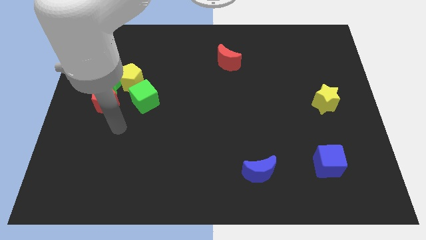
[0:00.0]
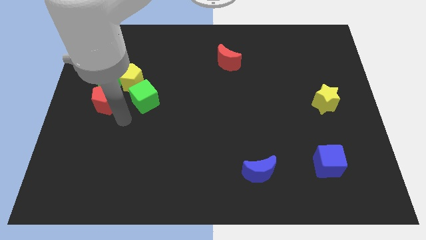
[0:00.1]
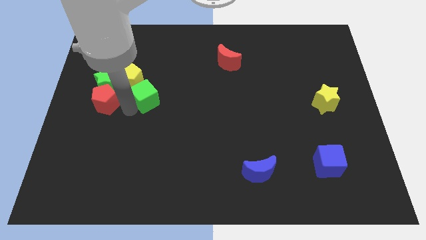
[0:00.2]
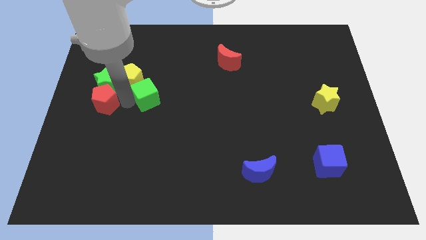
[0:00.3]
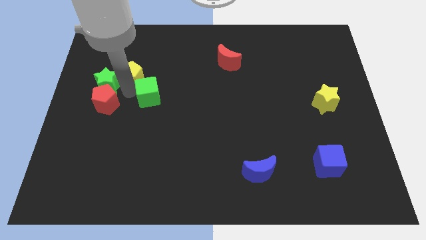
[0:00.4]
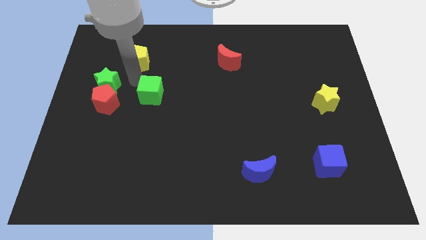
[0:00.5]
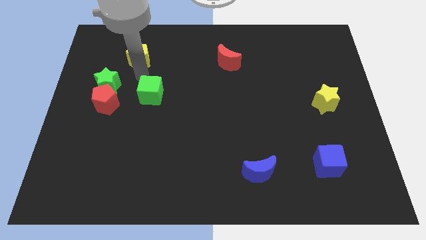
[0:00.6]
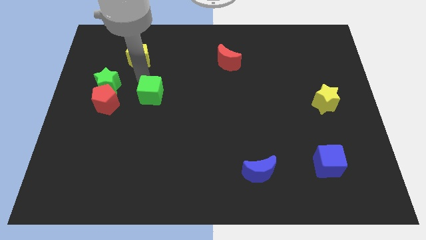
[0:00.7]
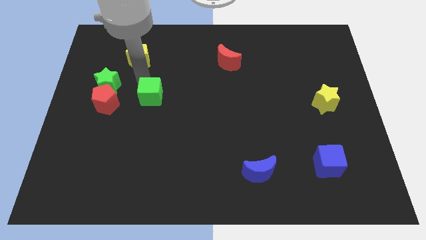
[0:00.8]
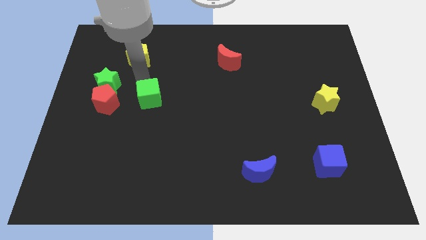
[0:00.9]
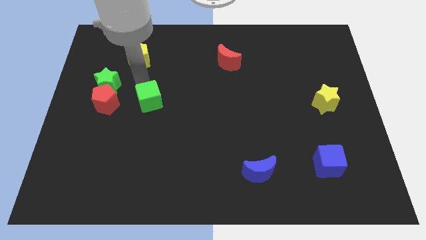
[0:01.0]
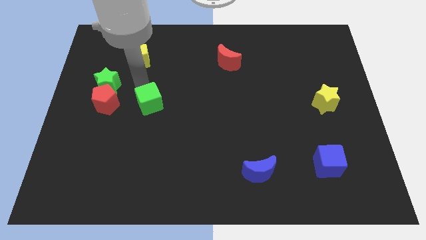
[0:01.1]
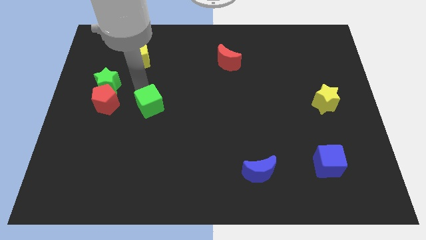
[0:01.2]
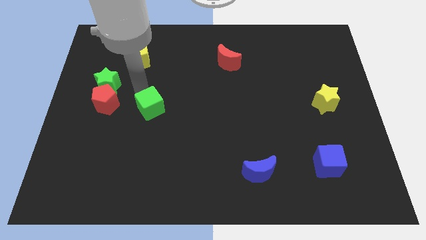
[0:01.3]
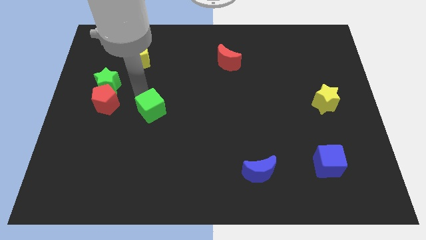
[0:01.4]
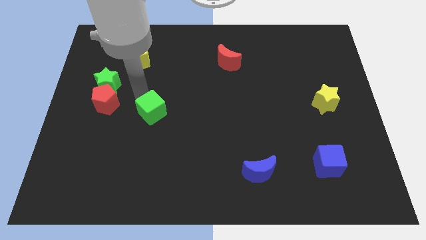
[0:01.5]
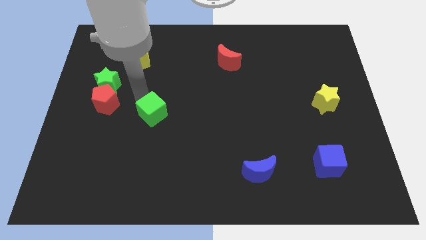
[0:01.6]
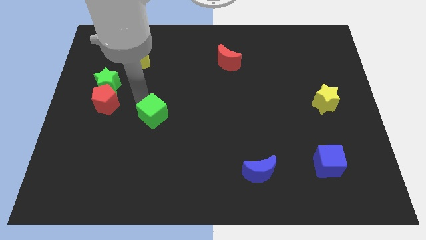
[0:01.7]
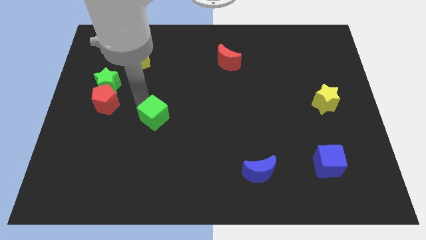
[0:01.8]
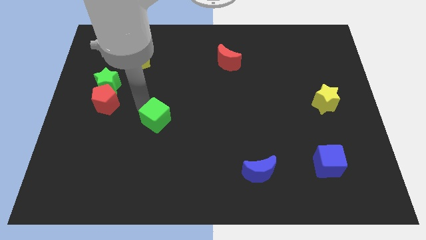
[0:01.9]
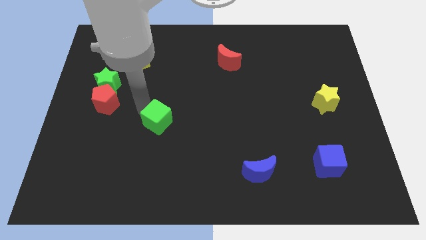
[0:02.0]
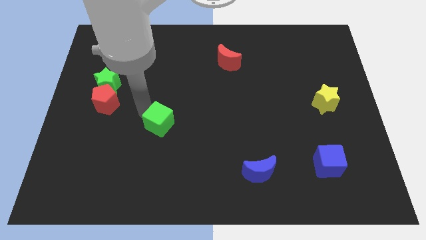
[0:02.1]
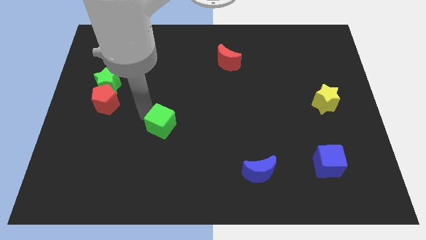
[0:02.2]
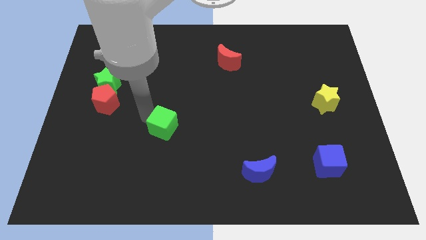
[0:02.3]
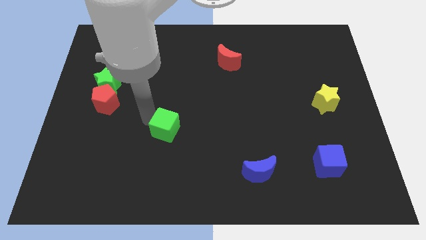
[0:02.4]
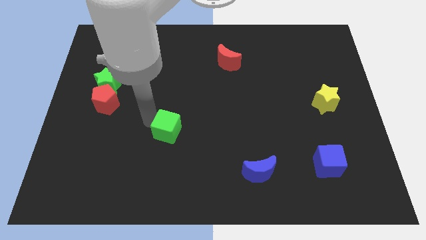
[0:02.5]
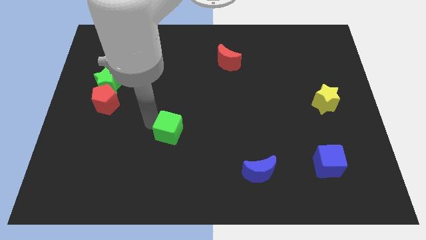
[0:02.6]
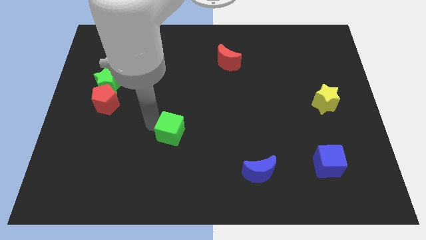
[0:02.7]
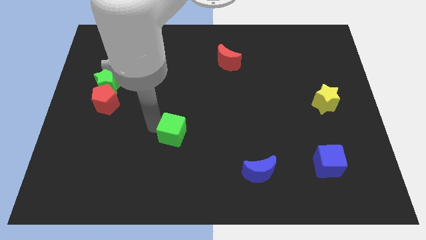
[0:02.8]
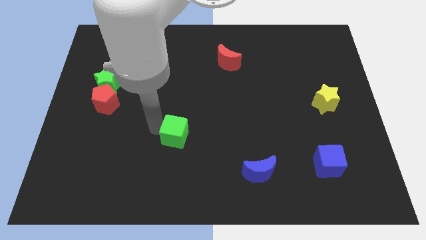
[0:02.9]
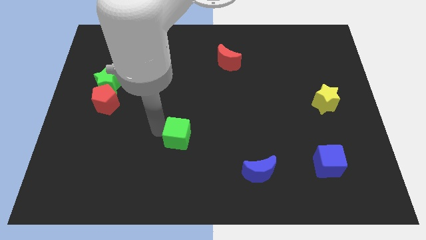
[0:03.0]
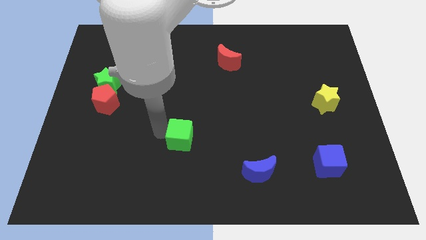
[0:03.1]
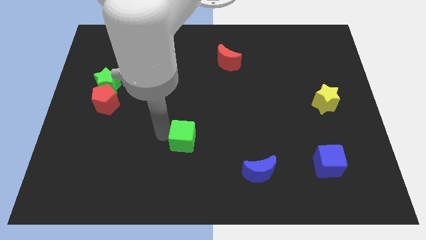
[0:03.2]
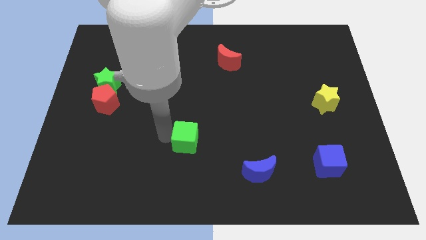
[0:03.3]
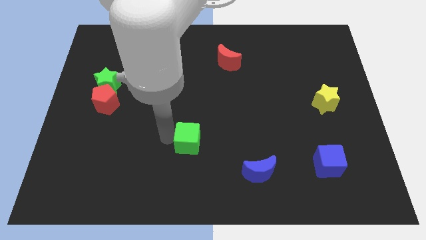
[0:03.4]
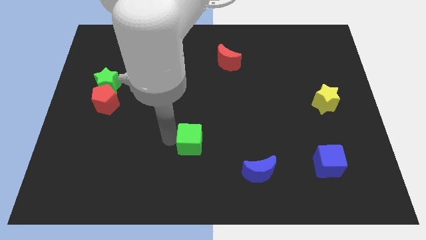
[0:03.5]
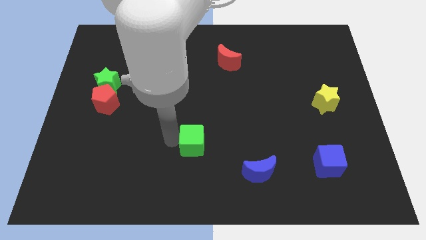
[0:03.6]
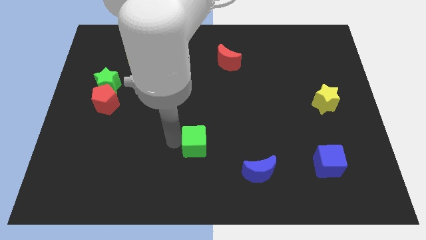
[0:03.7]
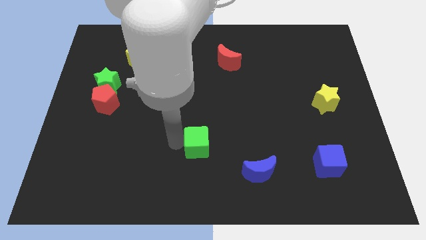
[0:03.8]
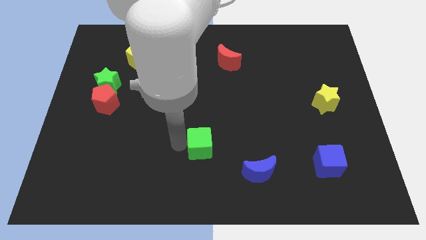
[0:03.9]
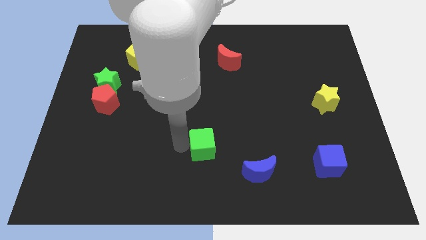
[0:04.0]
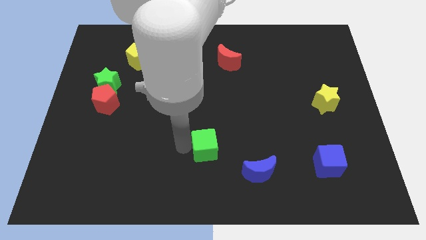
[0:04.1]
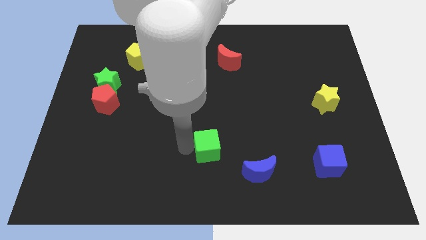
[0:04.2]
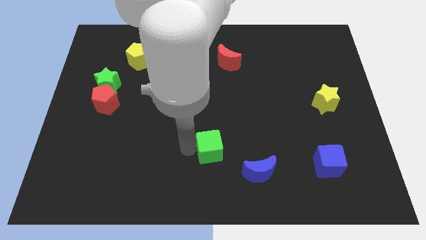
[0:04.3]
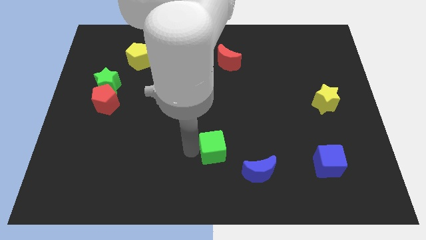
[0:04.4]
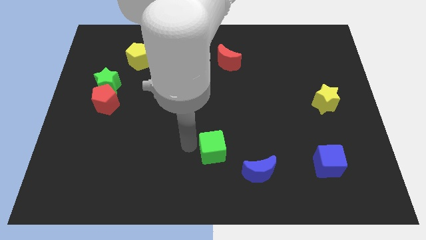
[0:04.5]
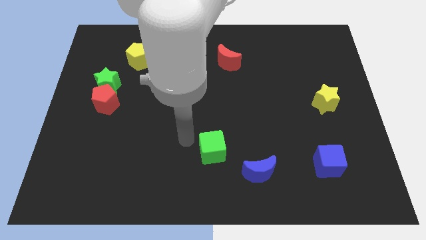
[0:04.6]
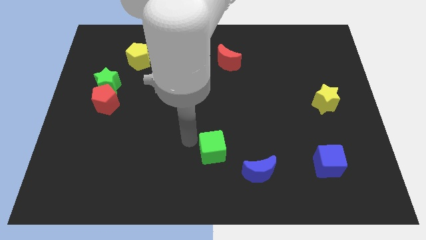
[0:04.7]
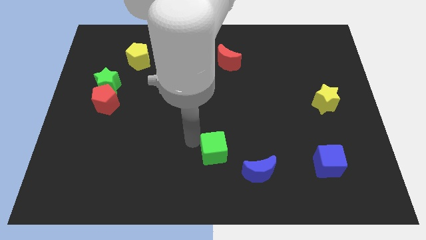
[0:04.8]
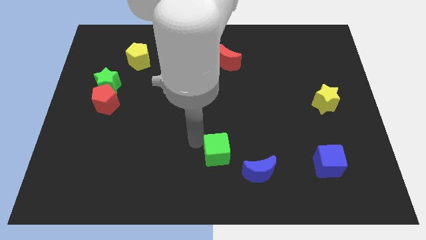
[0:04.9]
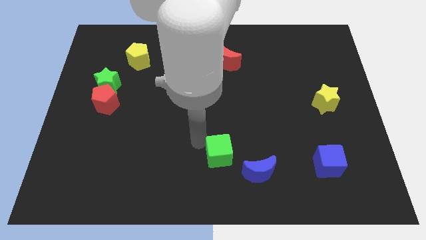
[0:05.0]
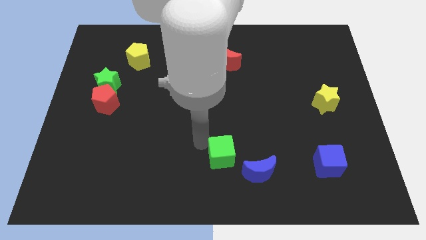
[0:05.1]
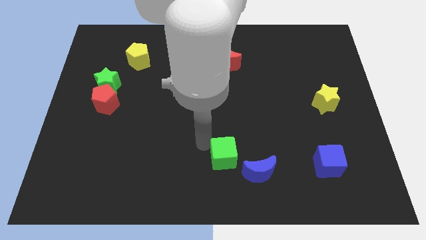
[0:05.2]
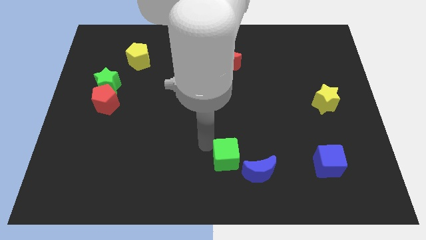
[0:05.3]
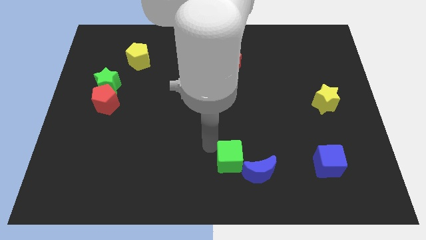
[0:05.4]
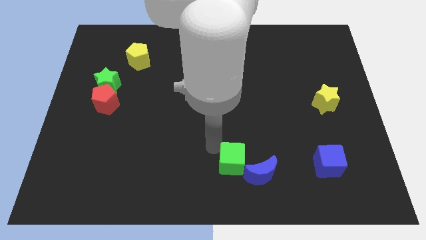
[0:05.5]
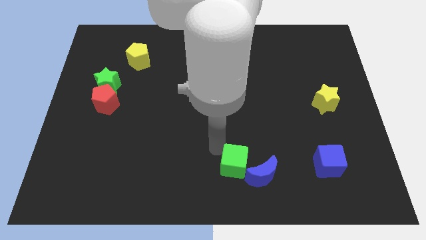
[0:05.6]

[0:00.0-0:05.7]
put the green cube towards the blue moon

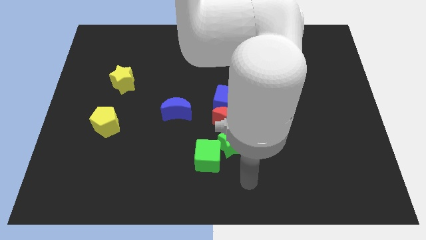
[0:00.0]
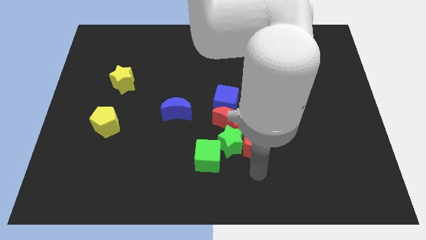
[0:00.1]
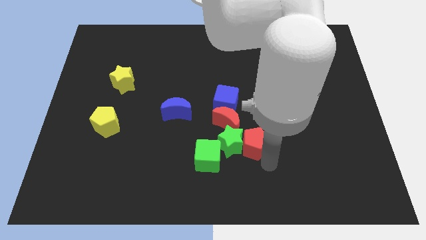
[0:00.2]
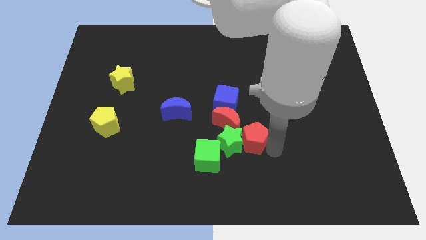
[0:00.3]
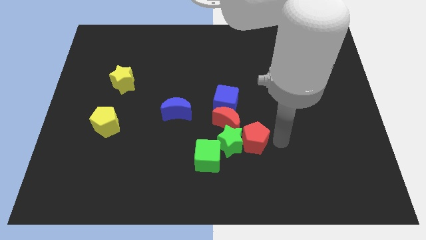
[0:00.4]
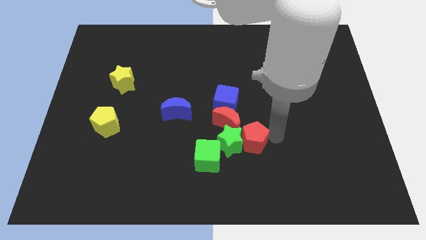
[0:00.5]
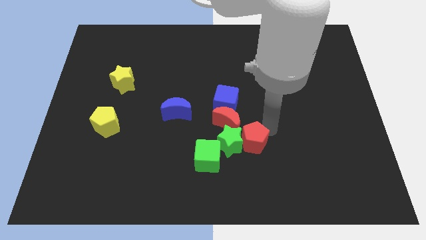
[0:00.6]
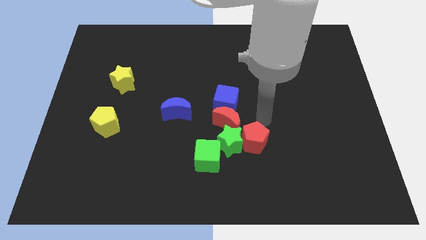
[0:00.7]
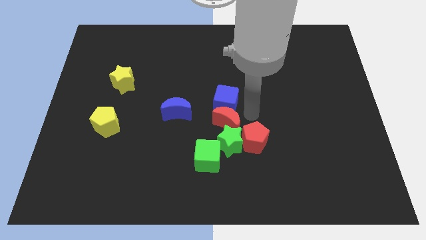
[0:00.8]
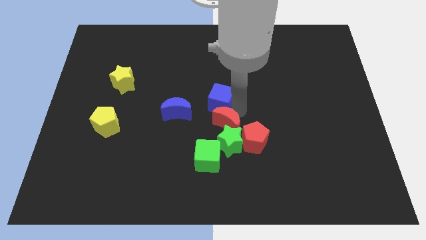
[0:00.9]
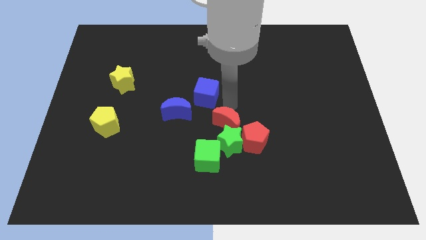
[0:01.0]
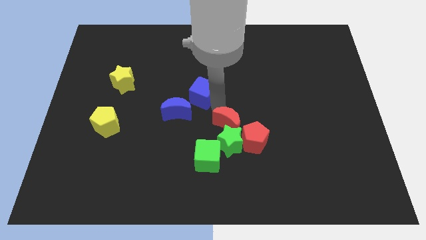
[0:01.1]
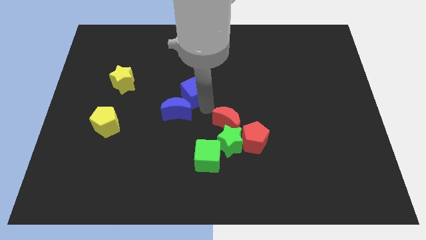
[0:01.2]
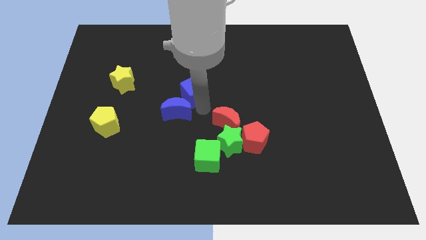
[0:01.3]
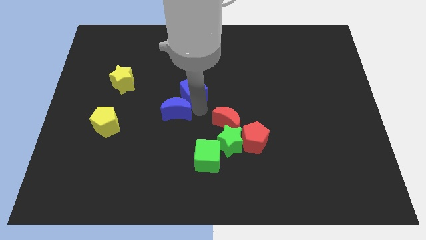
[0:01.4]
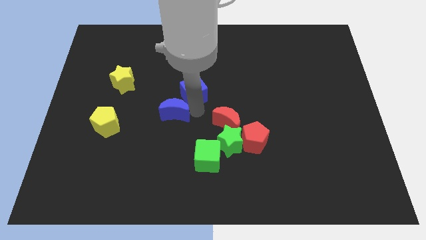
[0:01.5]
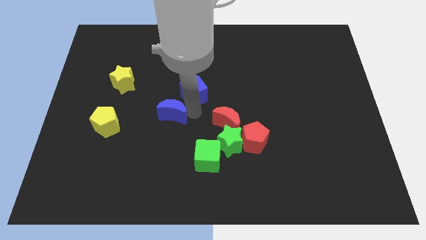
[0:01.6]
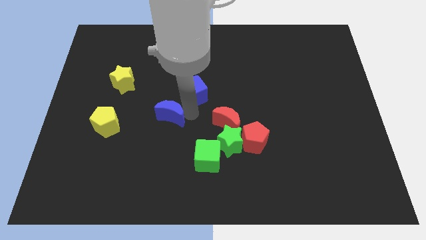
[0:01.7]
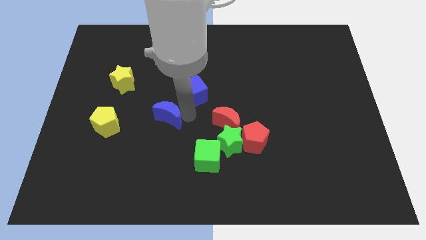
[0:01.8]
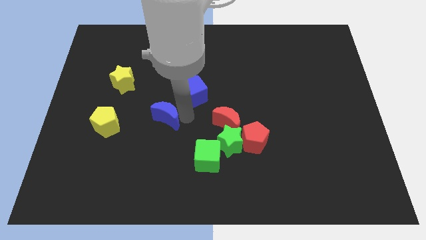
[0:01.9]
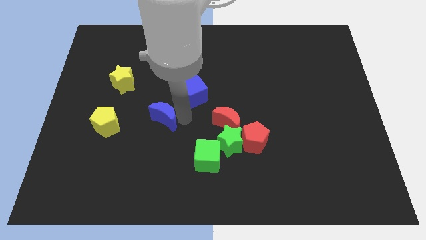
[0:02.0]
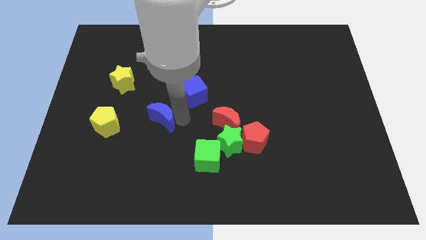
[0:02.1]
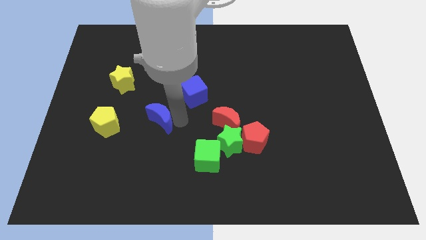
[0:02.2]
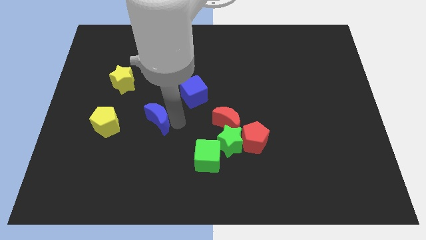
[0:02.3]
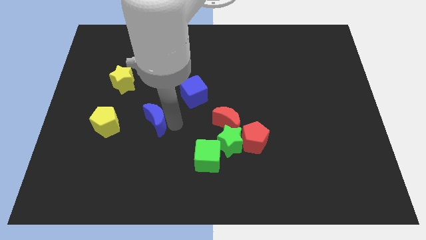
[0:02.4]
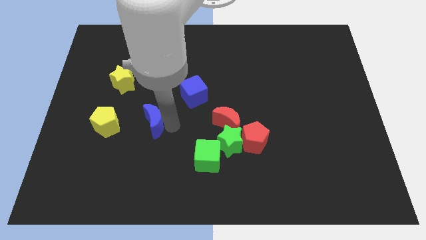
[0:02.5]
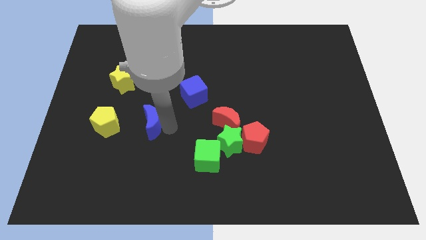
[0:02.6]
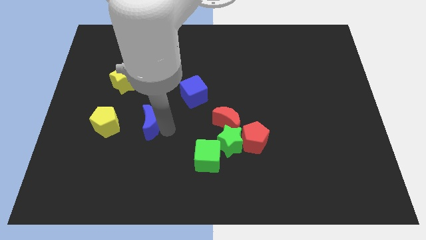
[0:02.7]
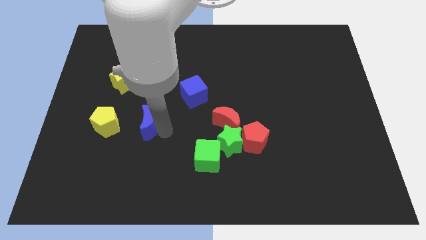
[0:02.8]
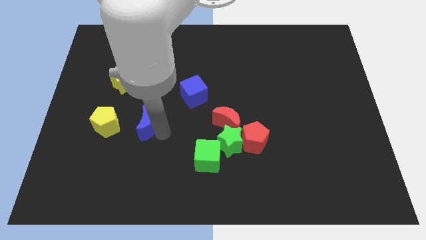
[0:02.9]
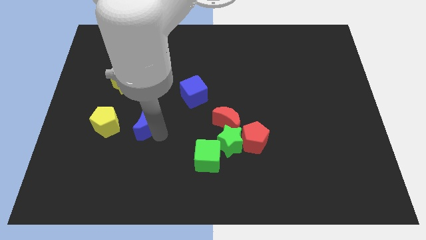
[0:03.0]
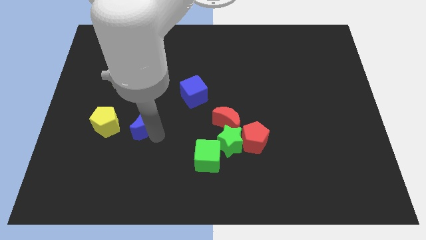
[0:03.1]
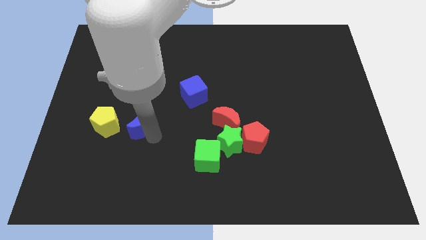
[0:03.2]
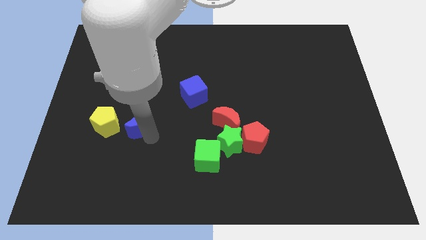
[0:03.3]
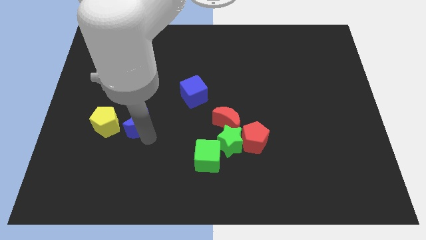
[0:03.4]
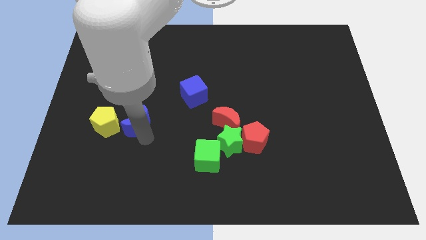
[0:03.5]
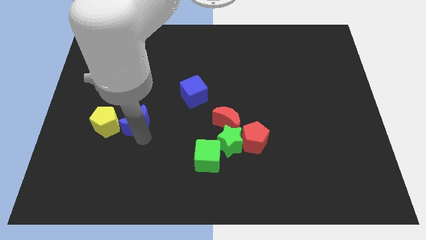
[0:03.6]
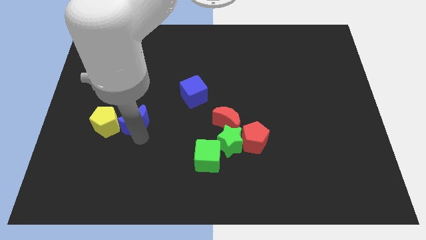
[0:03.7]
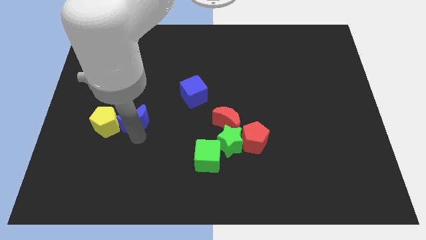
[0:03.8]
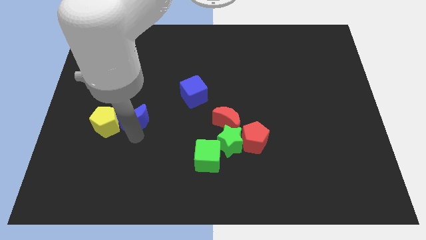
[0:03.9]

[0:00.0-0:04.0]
slide the blue moon close to the yellow pentagon
